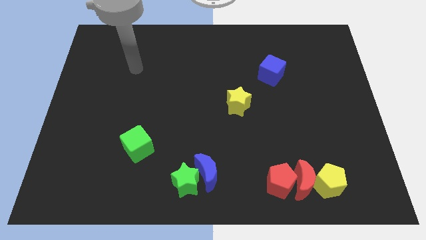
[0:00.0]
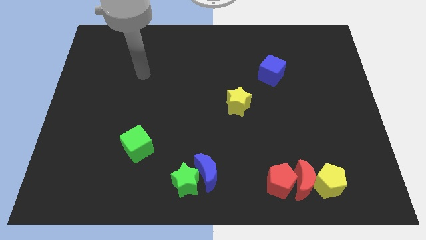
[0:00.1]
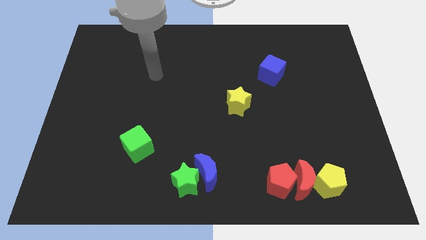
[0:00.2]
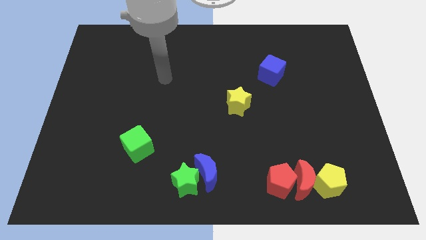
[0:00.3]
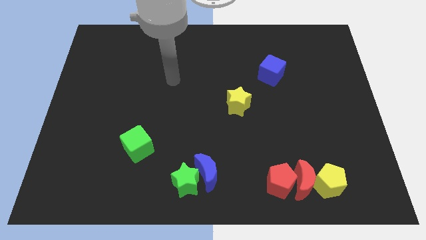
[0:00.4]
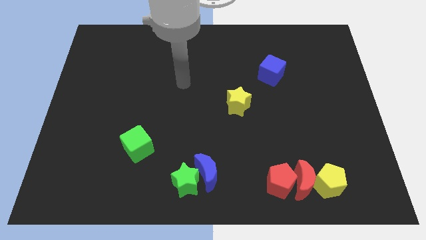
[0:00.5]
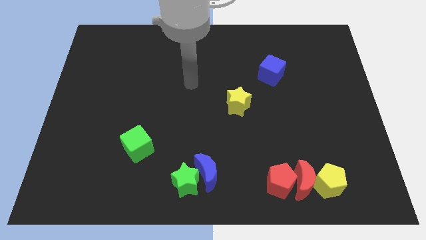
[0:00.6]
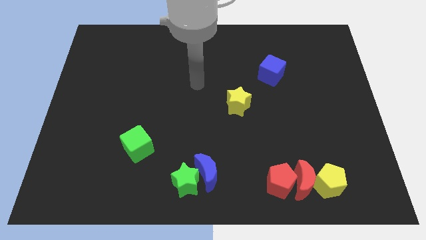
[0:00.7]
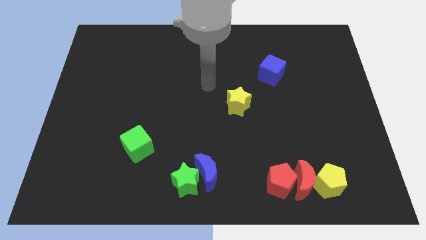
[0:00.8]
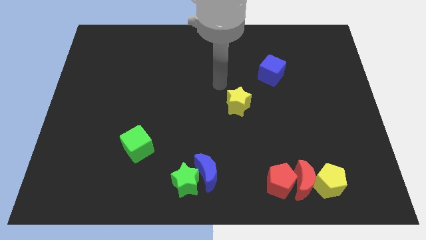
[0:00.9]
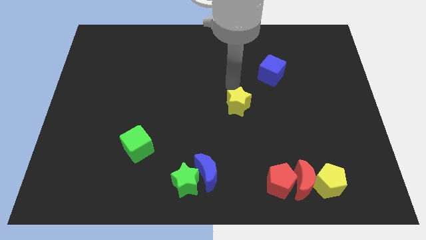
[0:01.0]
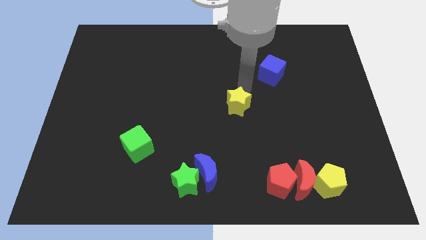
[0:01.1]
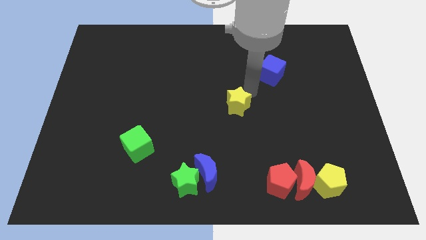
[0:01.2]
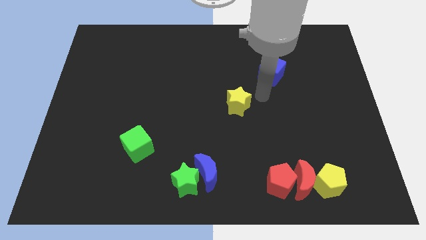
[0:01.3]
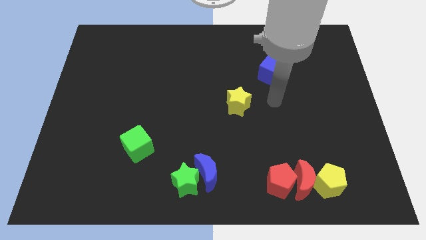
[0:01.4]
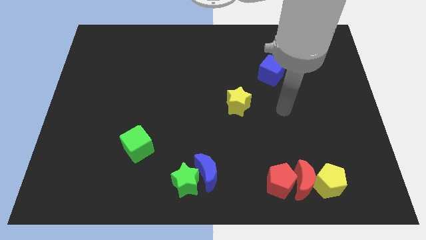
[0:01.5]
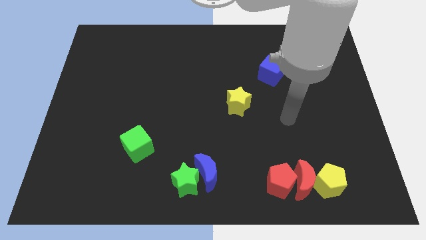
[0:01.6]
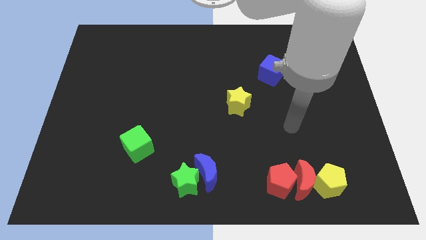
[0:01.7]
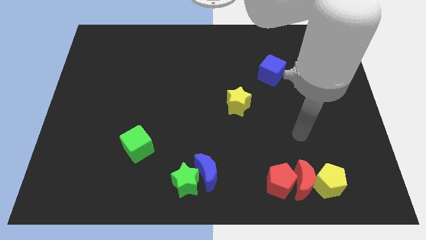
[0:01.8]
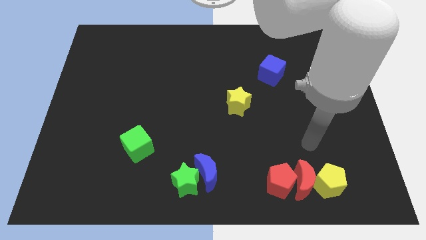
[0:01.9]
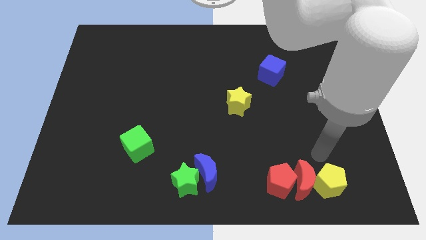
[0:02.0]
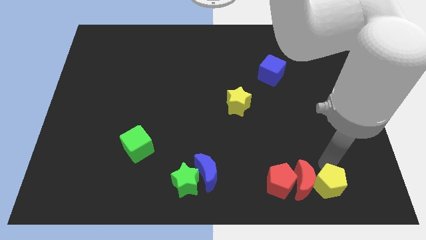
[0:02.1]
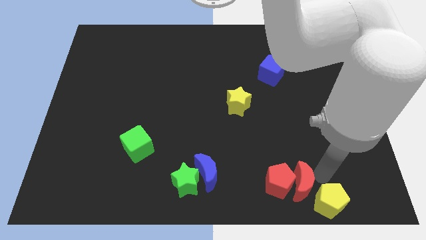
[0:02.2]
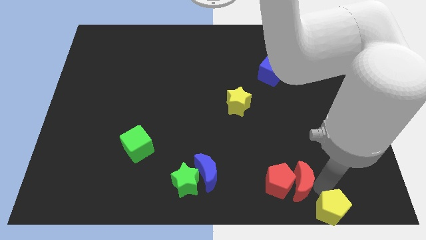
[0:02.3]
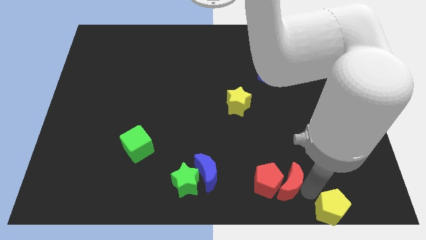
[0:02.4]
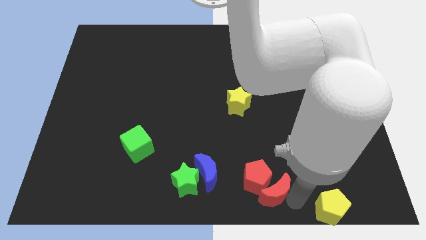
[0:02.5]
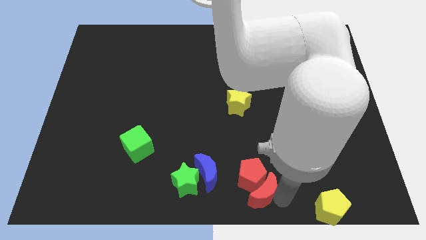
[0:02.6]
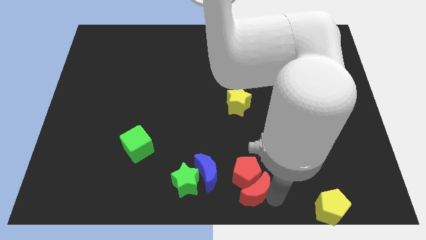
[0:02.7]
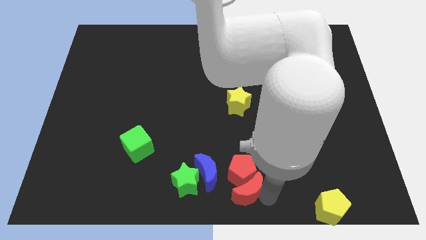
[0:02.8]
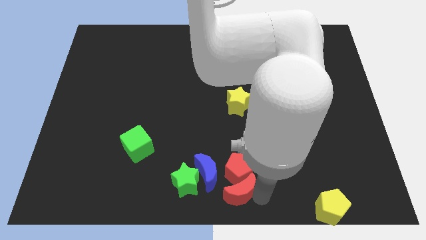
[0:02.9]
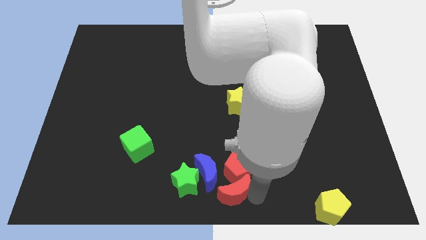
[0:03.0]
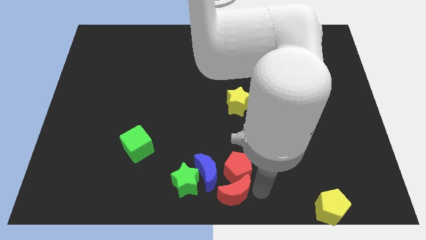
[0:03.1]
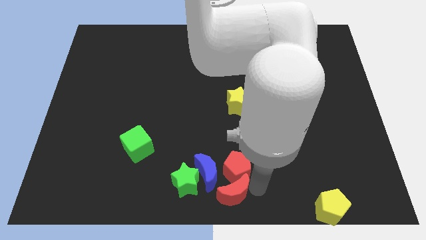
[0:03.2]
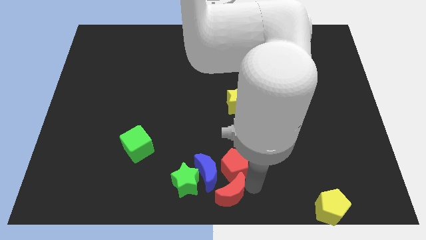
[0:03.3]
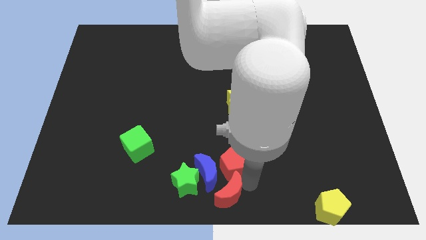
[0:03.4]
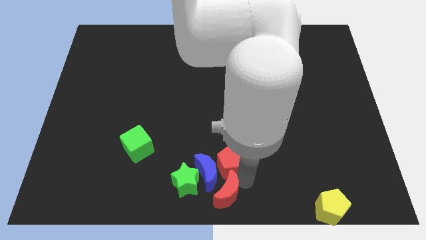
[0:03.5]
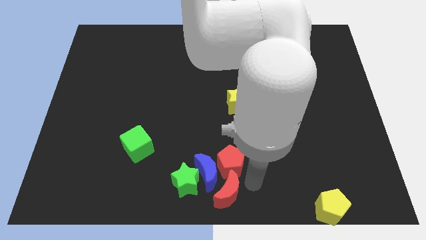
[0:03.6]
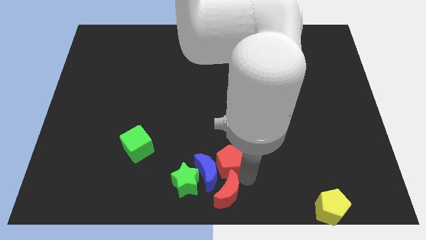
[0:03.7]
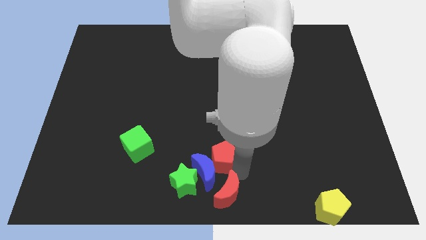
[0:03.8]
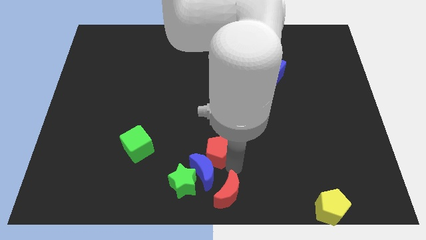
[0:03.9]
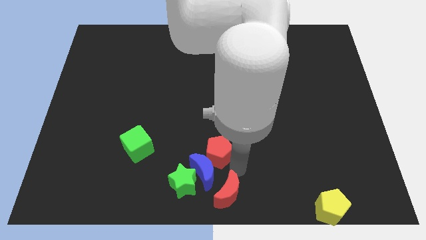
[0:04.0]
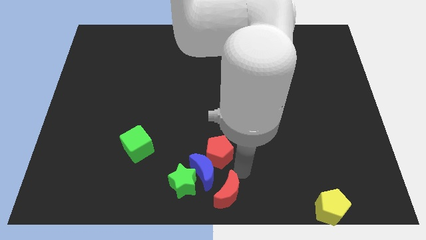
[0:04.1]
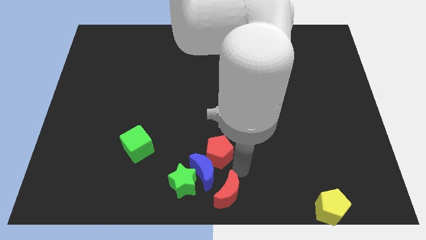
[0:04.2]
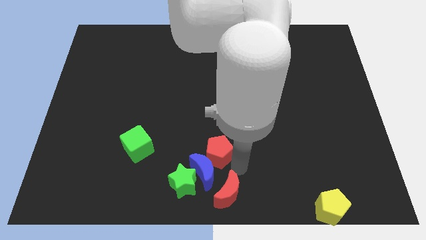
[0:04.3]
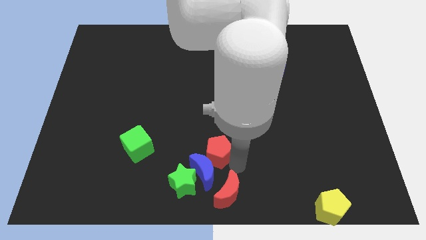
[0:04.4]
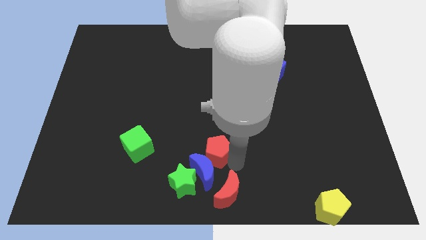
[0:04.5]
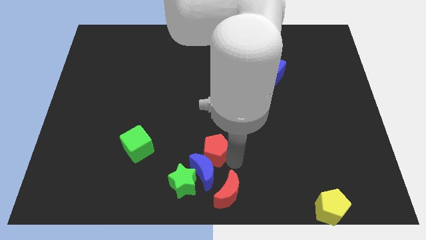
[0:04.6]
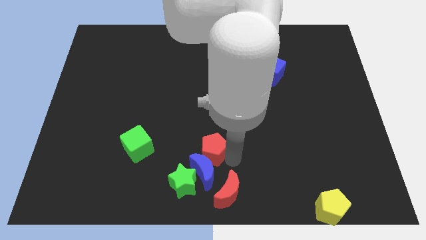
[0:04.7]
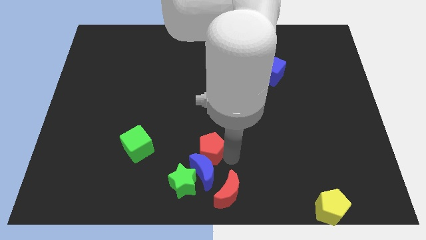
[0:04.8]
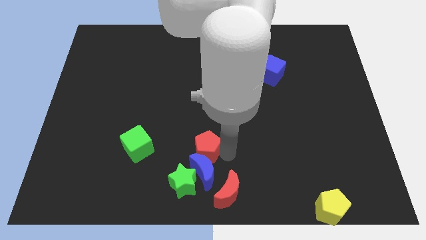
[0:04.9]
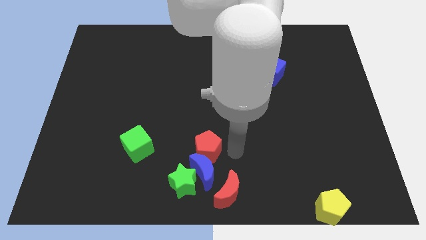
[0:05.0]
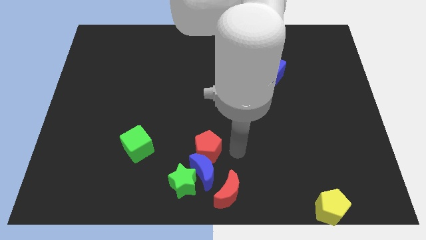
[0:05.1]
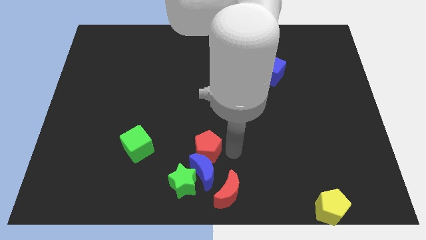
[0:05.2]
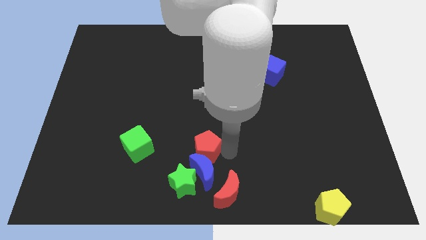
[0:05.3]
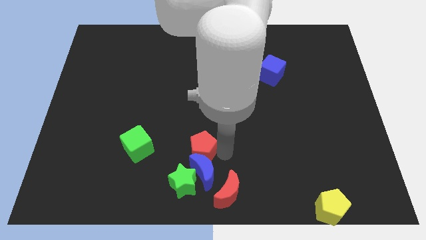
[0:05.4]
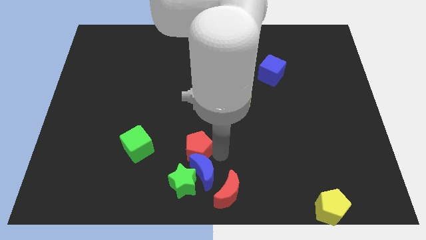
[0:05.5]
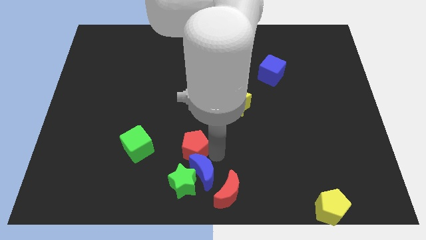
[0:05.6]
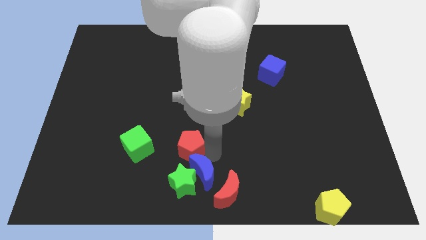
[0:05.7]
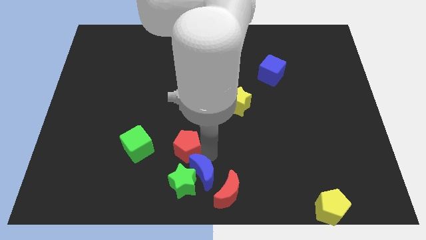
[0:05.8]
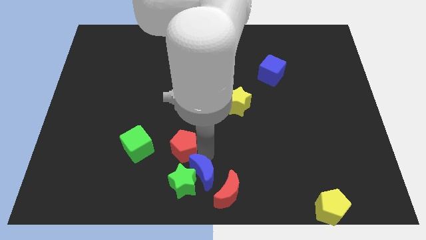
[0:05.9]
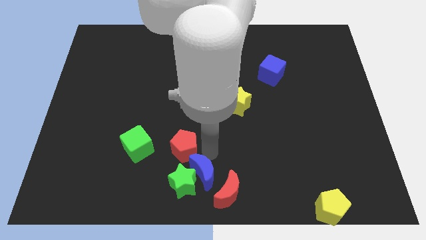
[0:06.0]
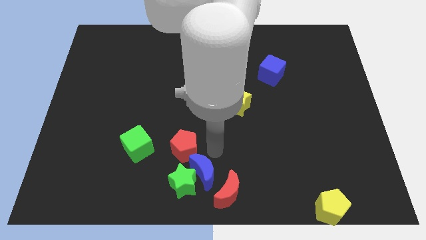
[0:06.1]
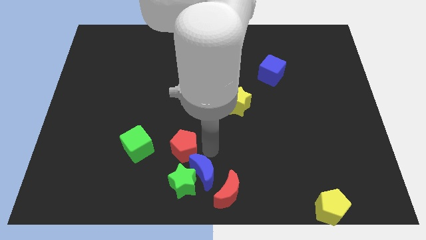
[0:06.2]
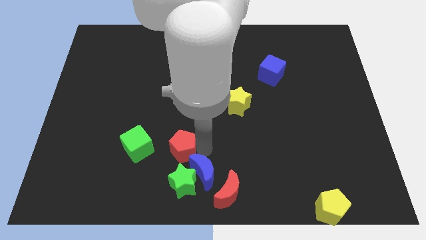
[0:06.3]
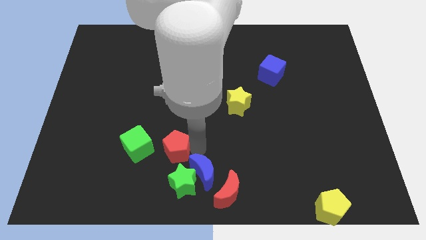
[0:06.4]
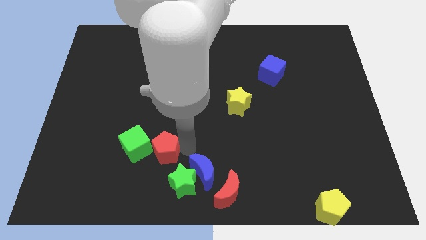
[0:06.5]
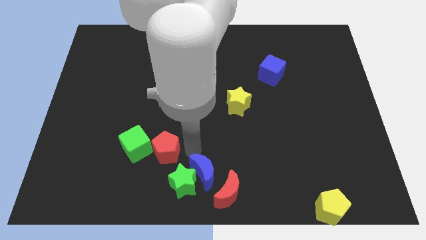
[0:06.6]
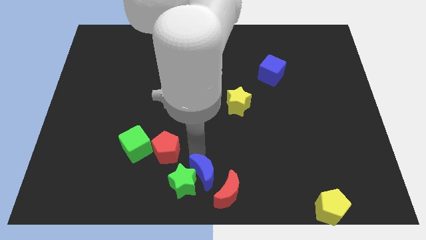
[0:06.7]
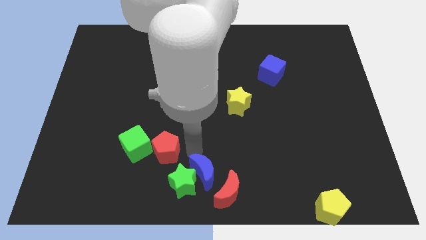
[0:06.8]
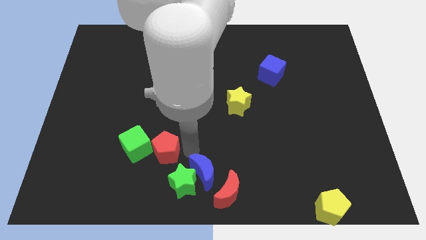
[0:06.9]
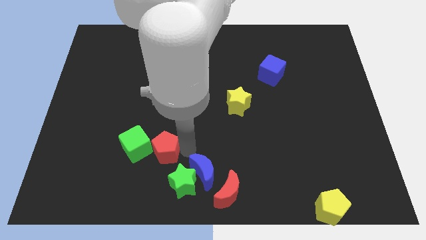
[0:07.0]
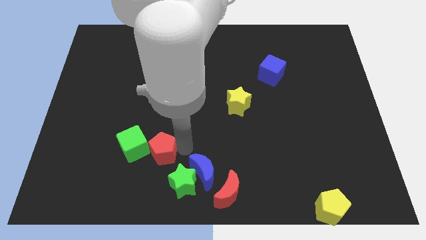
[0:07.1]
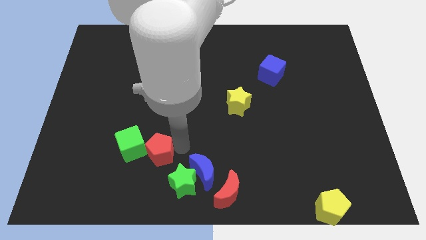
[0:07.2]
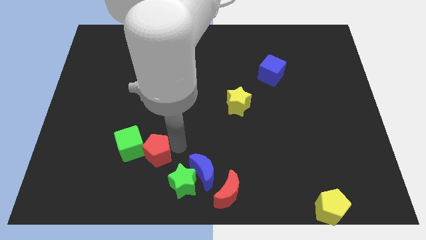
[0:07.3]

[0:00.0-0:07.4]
slide the red pentagon to the green cube

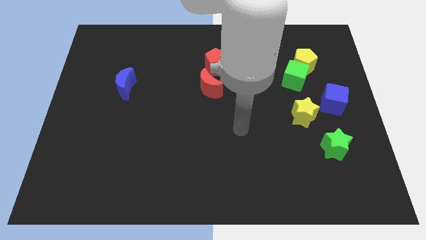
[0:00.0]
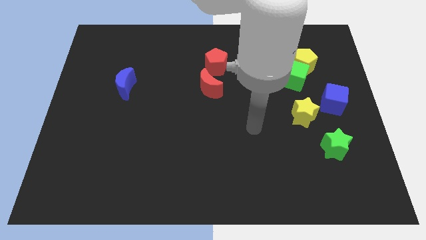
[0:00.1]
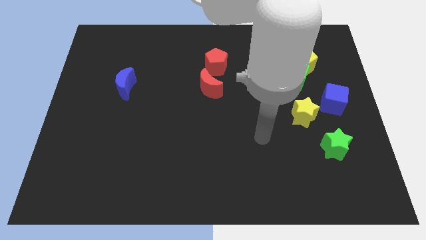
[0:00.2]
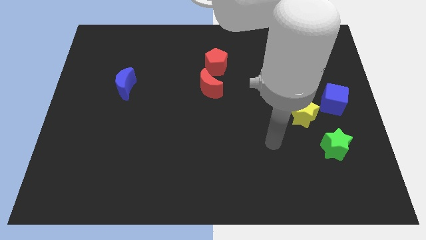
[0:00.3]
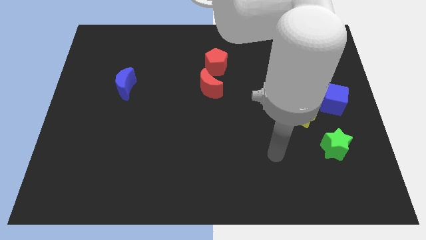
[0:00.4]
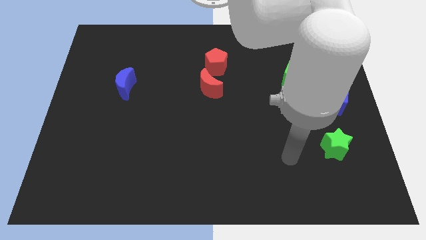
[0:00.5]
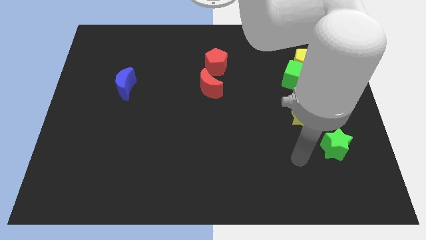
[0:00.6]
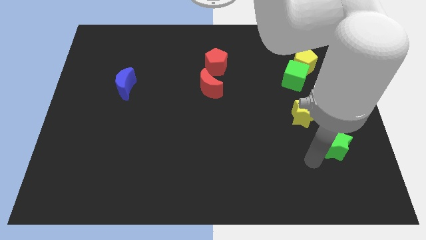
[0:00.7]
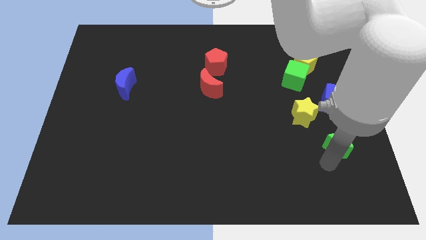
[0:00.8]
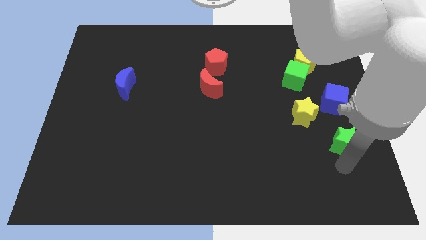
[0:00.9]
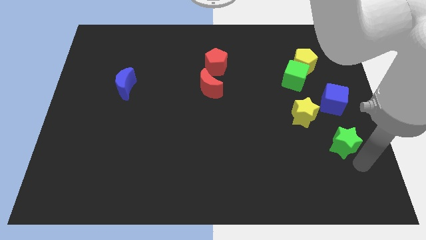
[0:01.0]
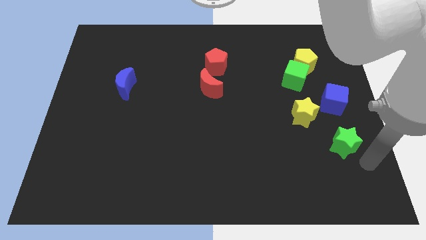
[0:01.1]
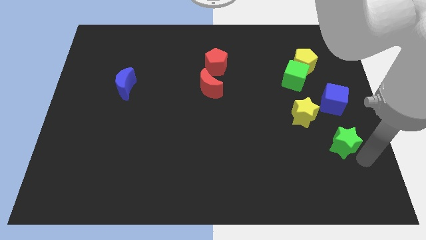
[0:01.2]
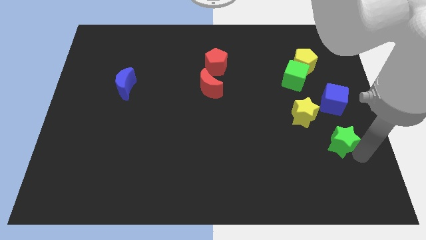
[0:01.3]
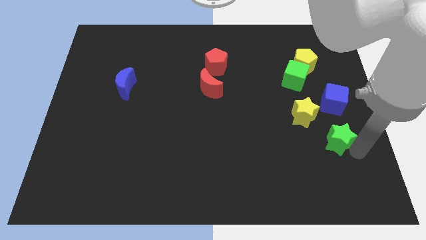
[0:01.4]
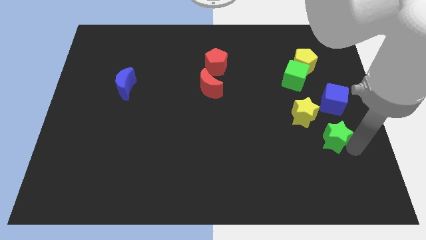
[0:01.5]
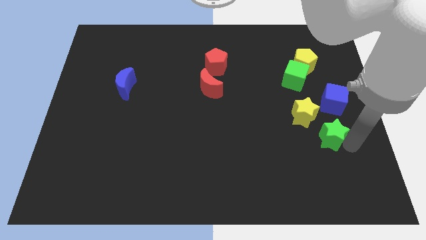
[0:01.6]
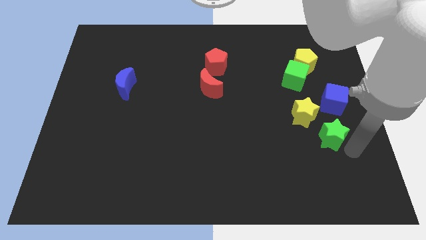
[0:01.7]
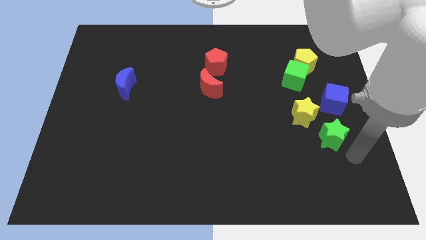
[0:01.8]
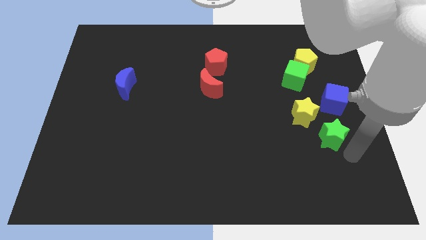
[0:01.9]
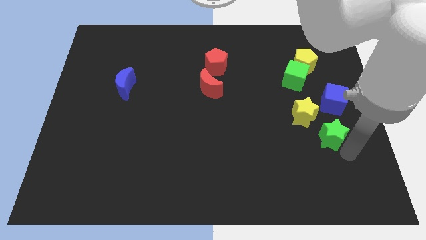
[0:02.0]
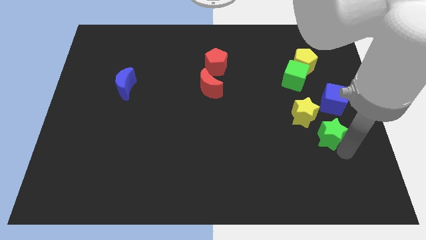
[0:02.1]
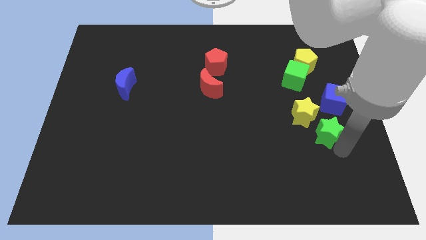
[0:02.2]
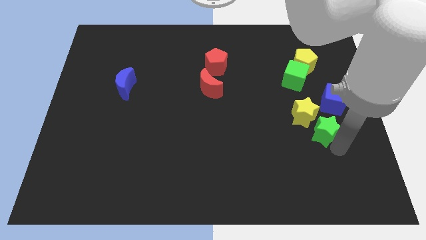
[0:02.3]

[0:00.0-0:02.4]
put the green star towards the yellow star
